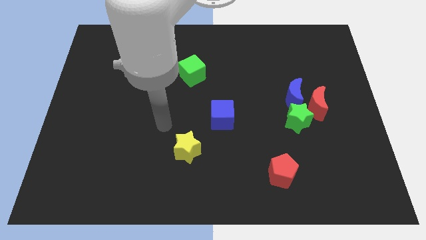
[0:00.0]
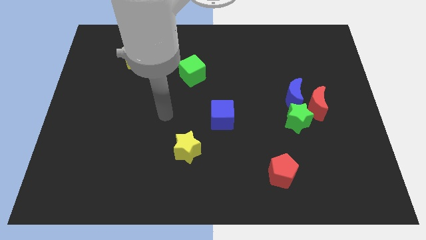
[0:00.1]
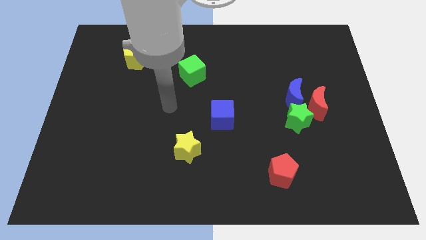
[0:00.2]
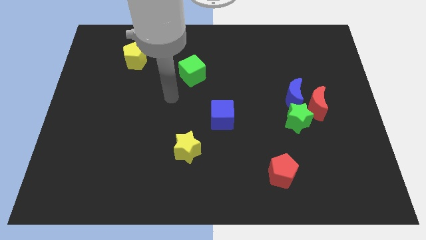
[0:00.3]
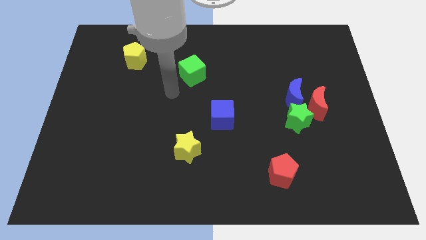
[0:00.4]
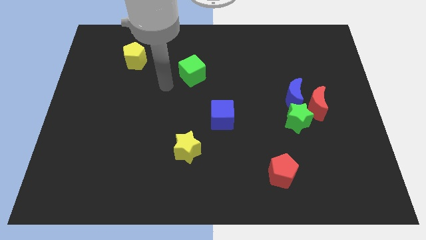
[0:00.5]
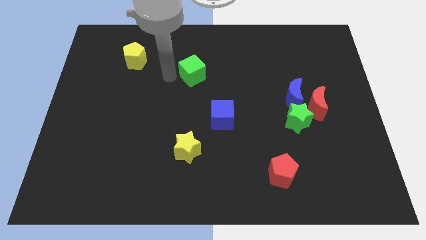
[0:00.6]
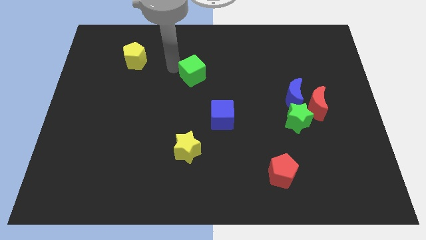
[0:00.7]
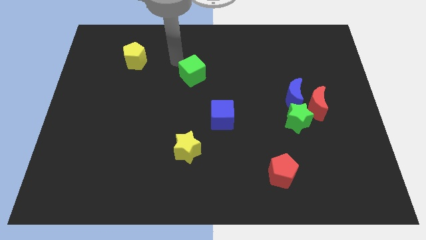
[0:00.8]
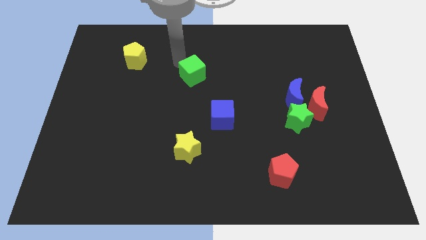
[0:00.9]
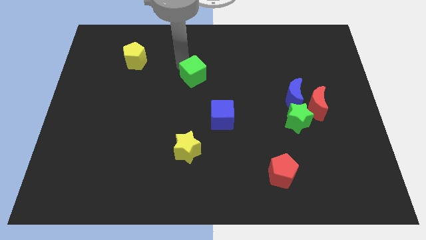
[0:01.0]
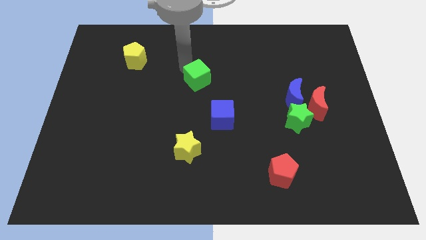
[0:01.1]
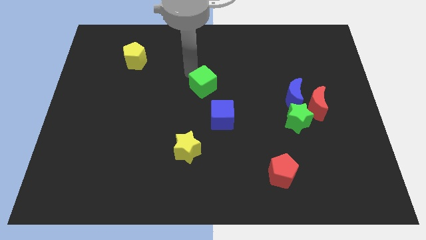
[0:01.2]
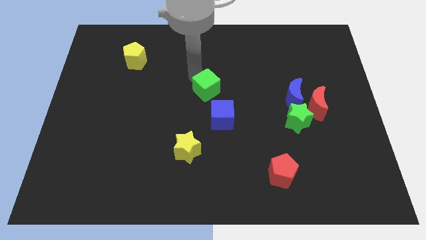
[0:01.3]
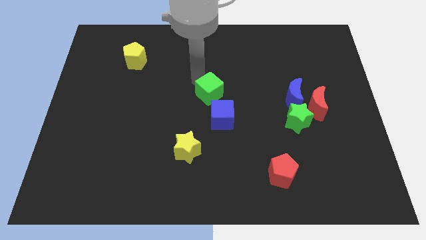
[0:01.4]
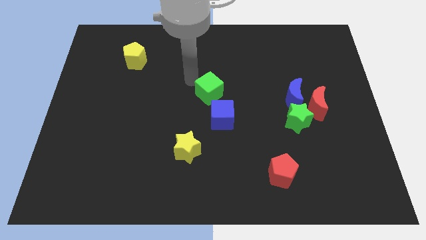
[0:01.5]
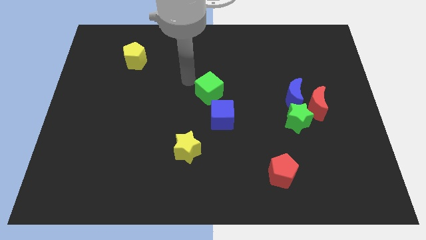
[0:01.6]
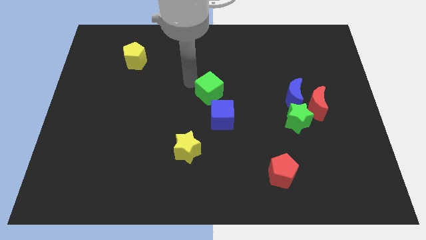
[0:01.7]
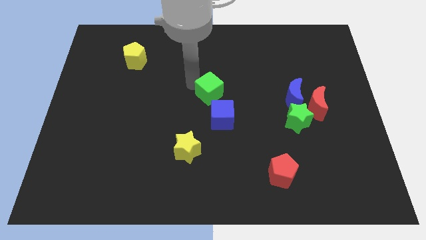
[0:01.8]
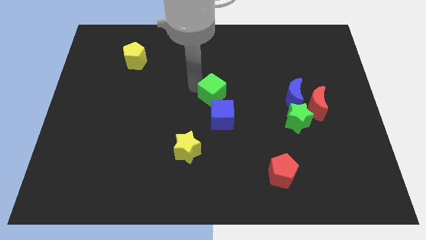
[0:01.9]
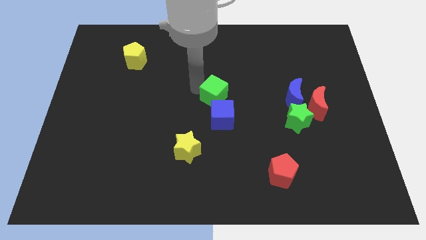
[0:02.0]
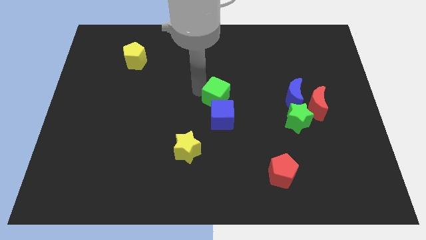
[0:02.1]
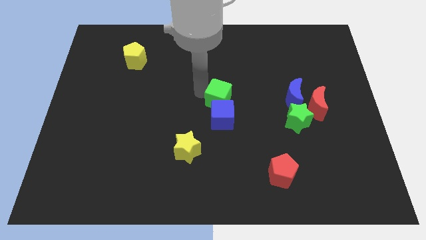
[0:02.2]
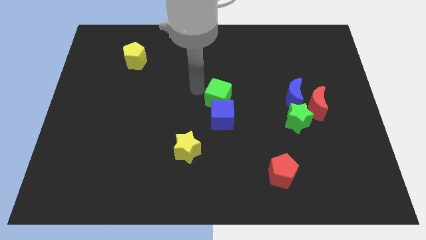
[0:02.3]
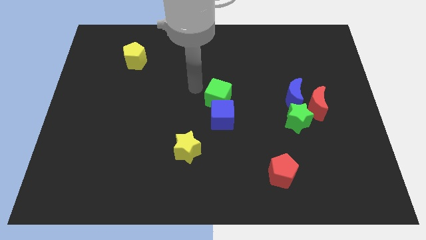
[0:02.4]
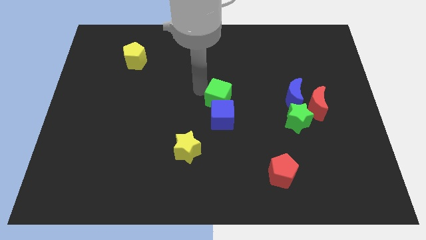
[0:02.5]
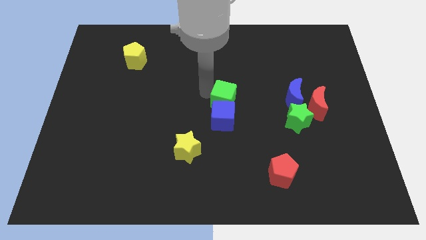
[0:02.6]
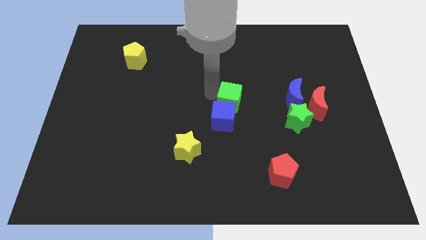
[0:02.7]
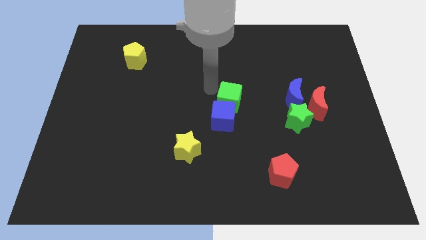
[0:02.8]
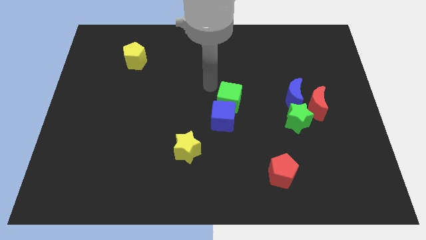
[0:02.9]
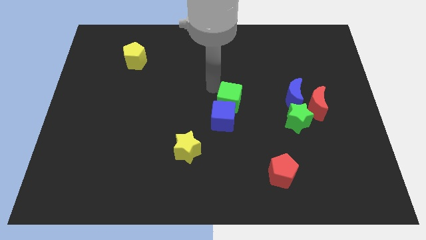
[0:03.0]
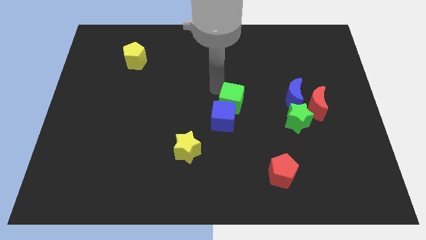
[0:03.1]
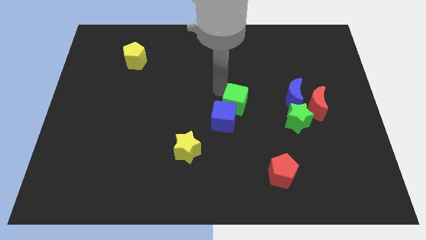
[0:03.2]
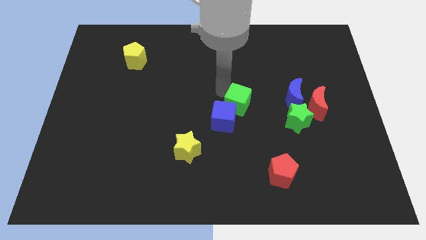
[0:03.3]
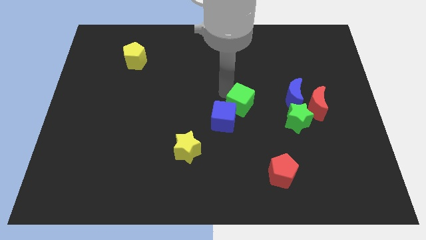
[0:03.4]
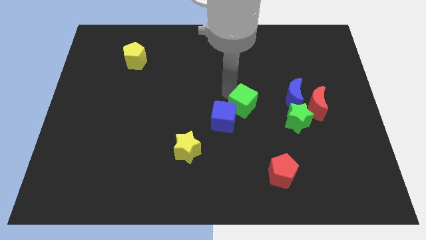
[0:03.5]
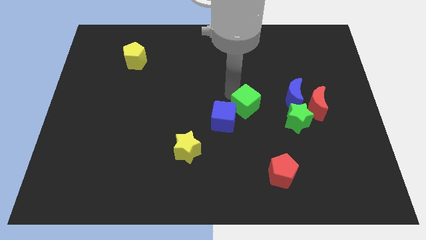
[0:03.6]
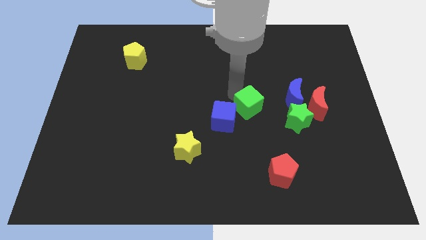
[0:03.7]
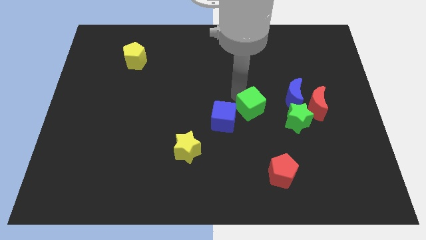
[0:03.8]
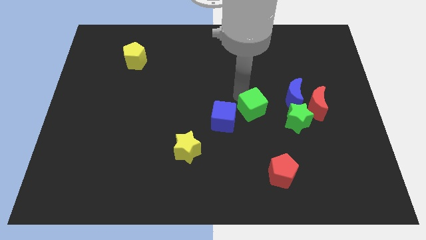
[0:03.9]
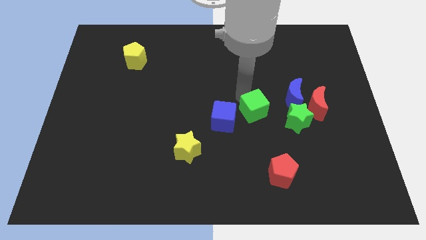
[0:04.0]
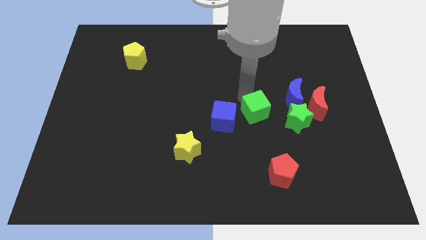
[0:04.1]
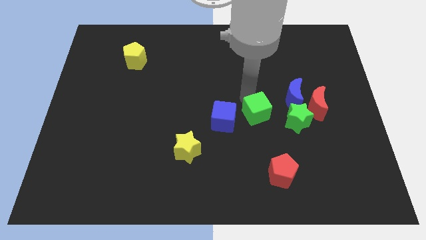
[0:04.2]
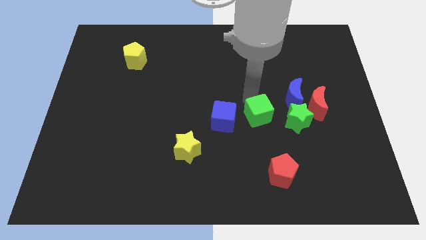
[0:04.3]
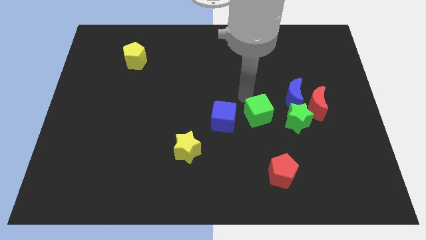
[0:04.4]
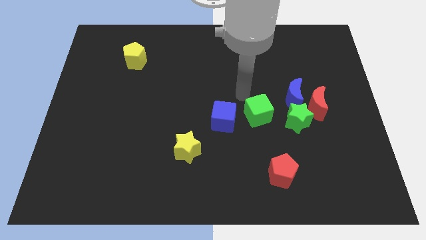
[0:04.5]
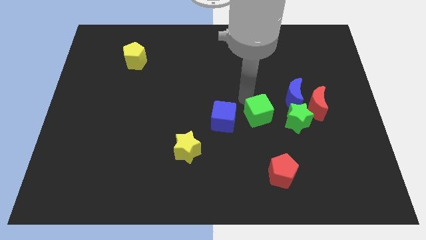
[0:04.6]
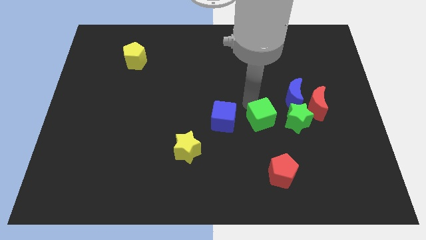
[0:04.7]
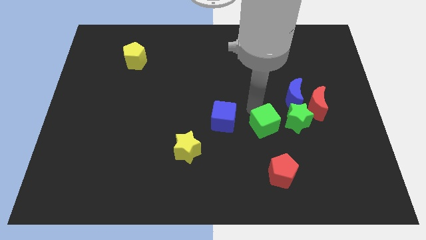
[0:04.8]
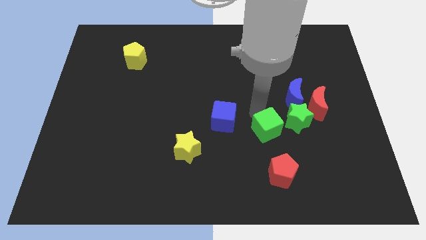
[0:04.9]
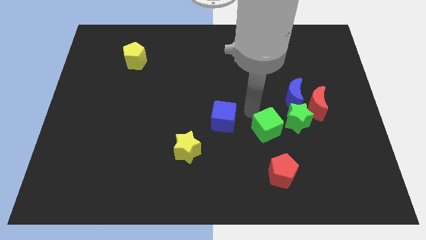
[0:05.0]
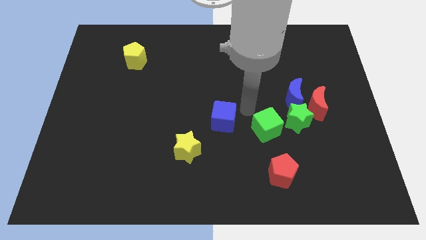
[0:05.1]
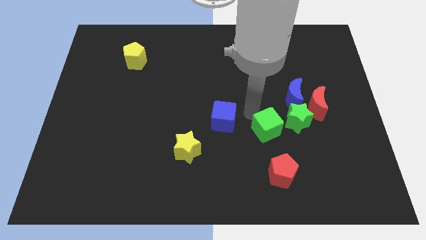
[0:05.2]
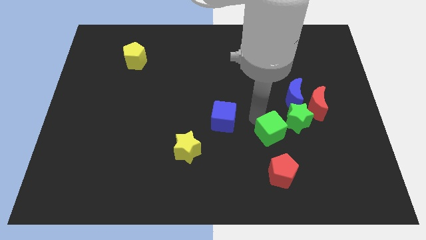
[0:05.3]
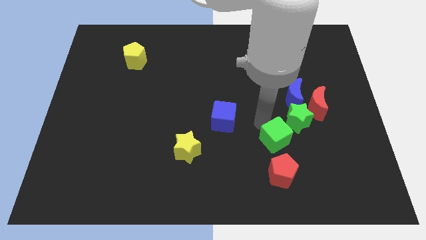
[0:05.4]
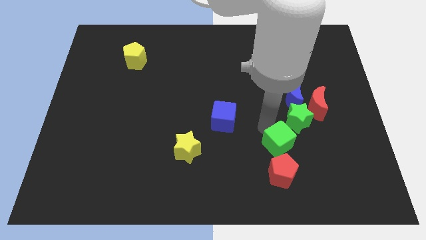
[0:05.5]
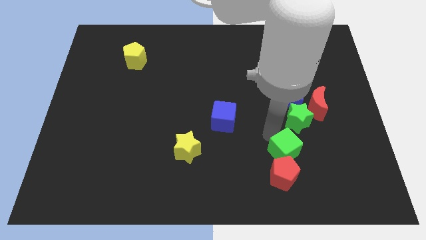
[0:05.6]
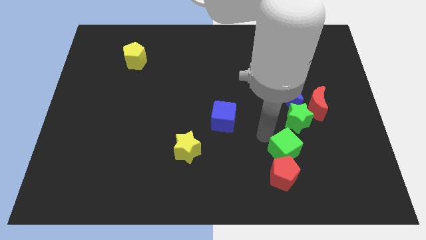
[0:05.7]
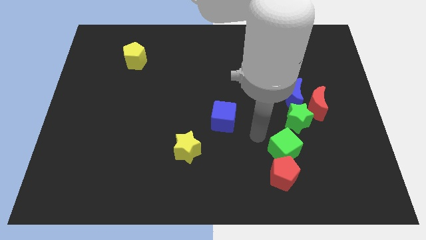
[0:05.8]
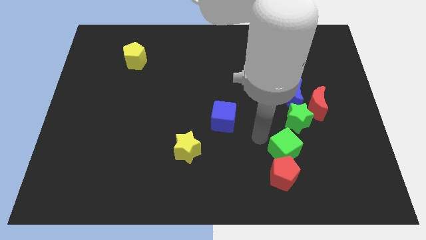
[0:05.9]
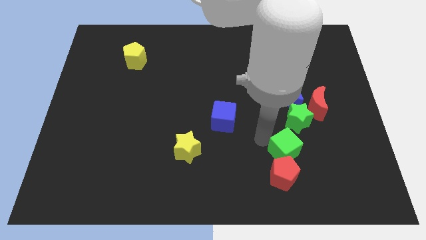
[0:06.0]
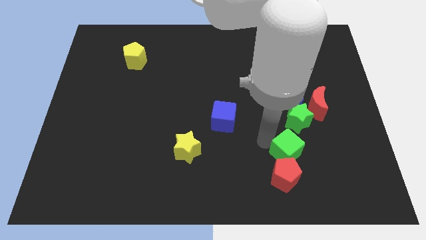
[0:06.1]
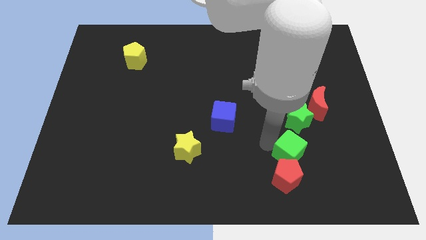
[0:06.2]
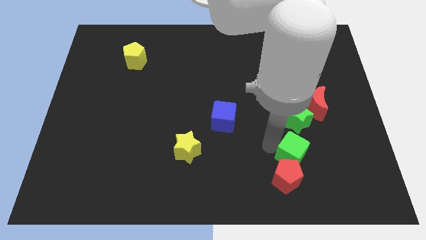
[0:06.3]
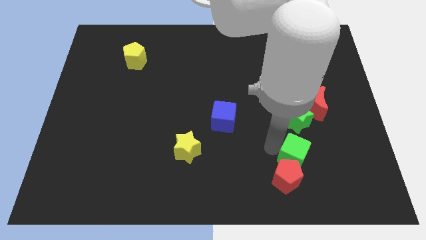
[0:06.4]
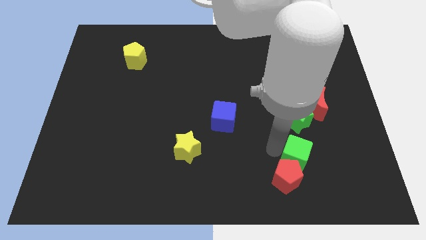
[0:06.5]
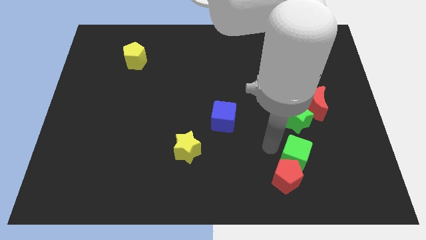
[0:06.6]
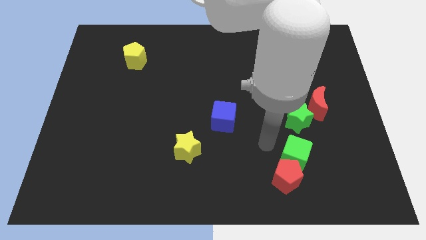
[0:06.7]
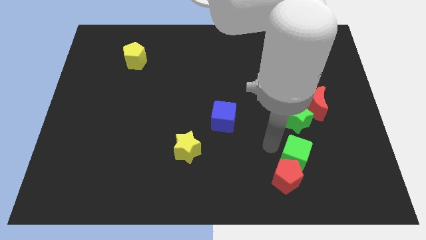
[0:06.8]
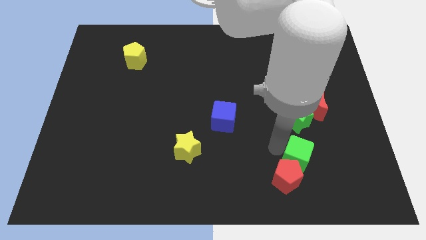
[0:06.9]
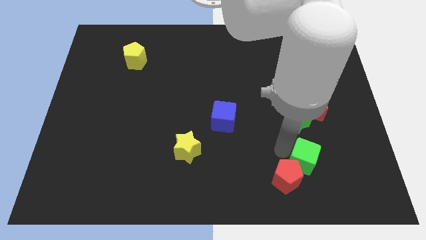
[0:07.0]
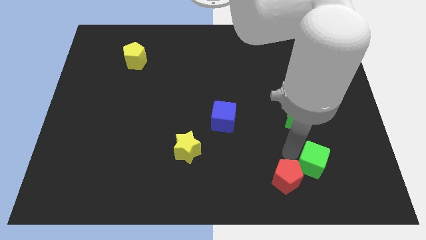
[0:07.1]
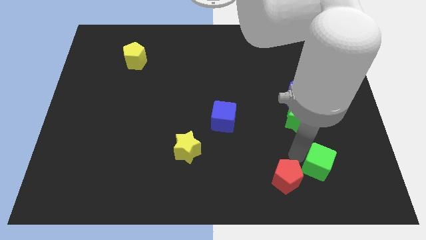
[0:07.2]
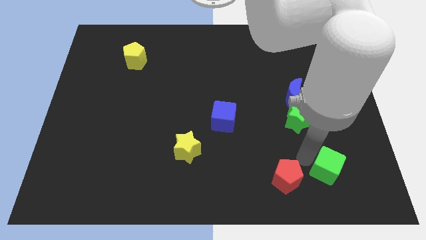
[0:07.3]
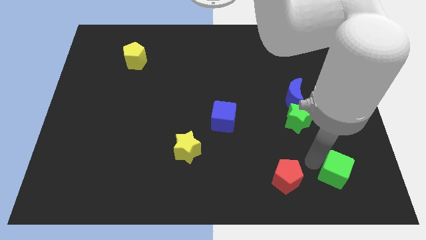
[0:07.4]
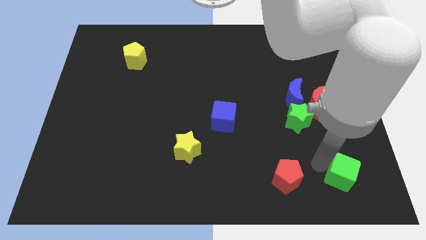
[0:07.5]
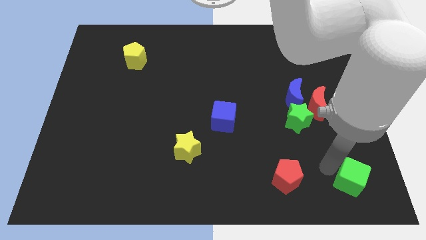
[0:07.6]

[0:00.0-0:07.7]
slide the green cube to the lower right corner
